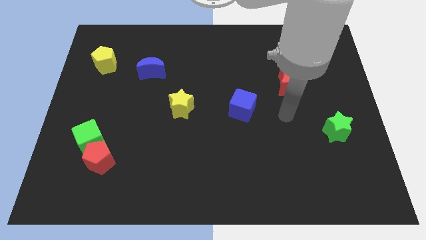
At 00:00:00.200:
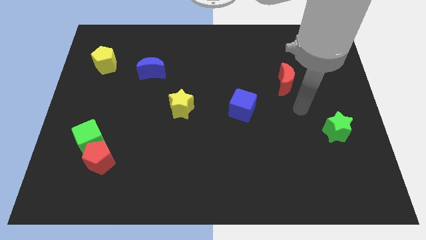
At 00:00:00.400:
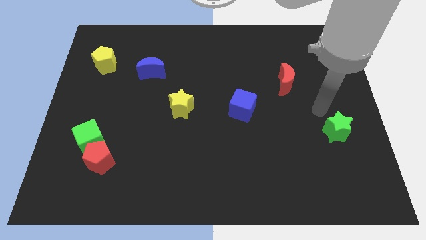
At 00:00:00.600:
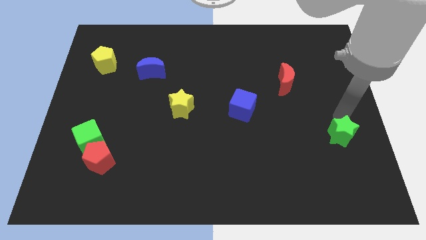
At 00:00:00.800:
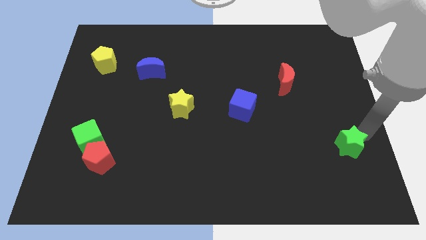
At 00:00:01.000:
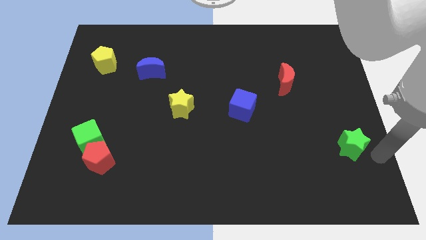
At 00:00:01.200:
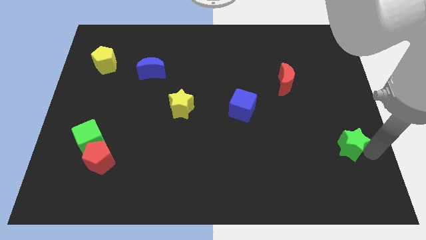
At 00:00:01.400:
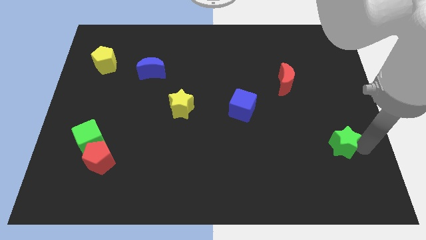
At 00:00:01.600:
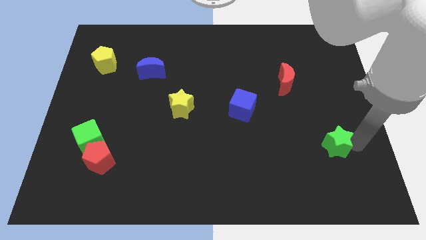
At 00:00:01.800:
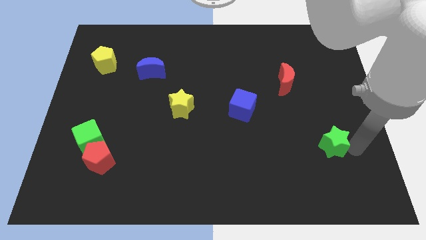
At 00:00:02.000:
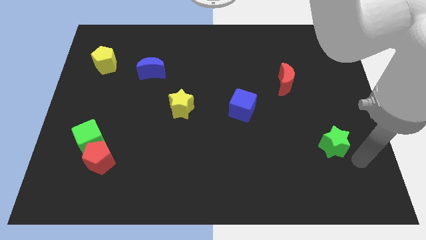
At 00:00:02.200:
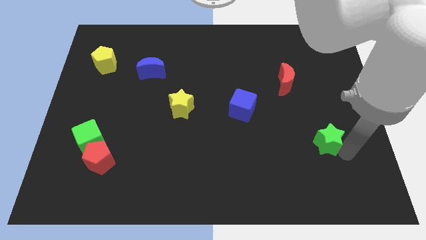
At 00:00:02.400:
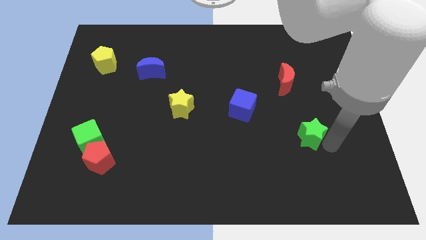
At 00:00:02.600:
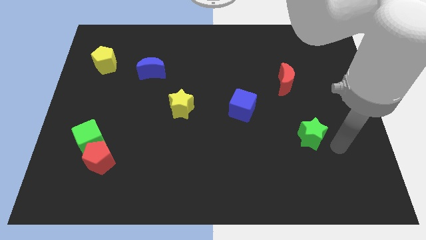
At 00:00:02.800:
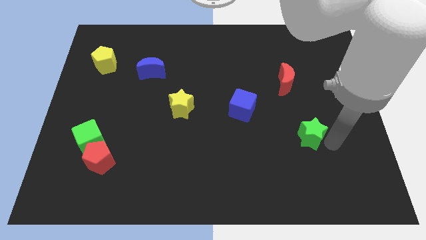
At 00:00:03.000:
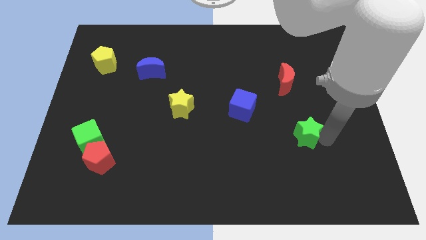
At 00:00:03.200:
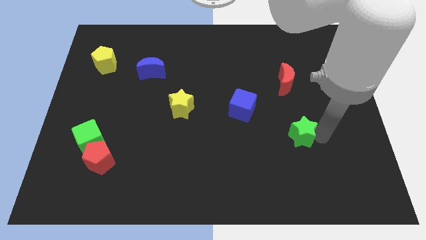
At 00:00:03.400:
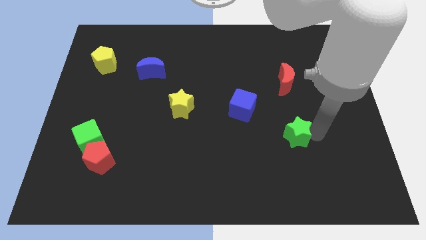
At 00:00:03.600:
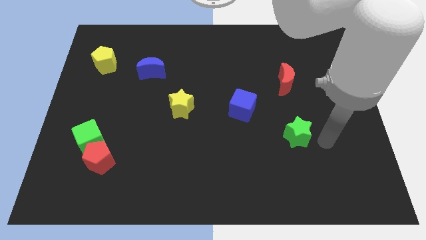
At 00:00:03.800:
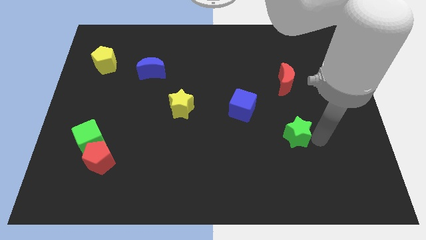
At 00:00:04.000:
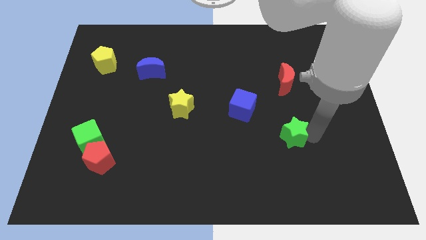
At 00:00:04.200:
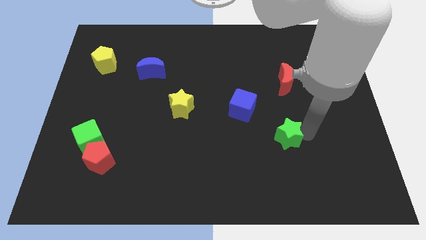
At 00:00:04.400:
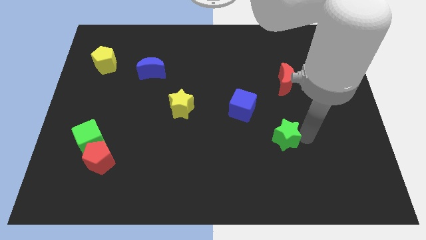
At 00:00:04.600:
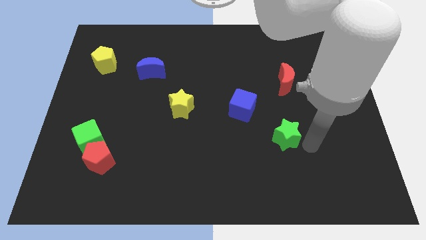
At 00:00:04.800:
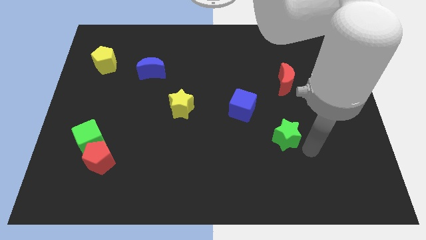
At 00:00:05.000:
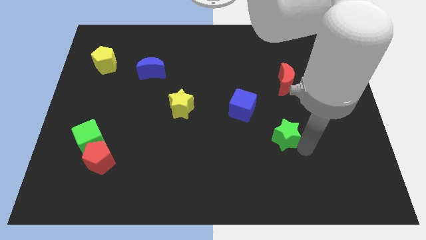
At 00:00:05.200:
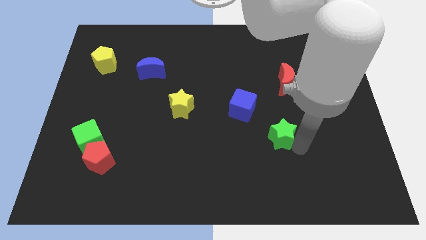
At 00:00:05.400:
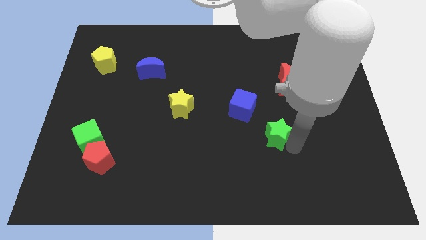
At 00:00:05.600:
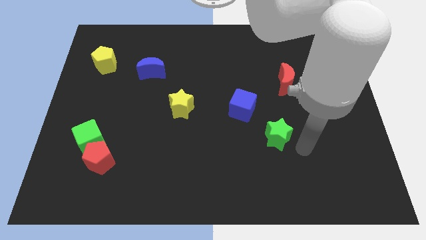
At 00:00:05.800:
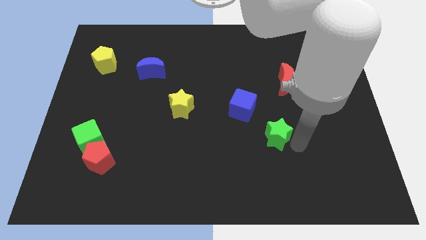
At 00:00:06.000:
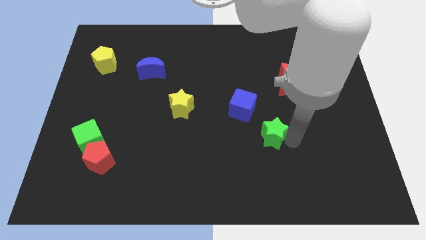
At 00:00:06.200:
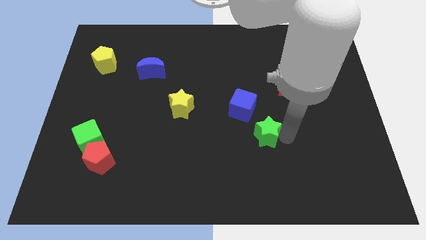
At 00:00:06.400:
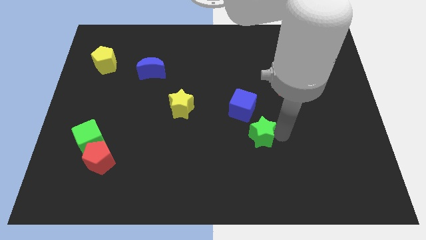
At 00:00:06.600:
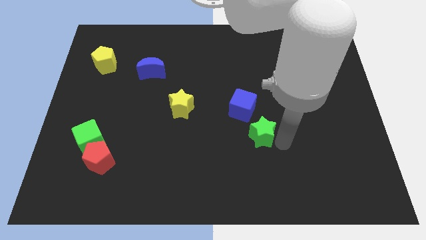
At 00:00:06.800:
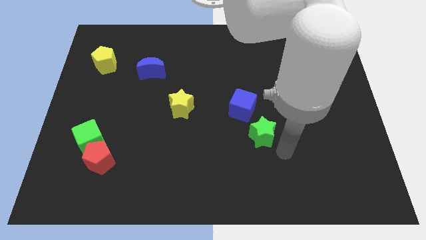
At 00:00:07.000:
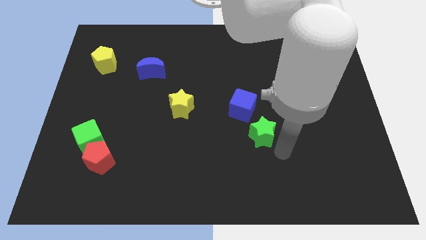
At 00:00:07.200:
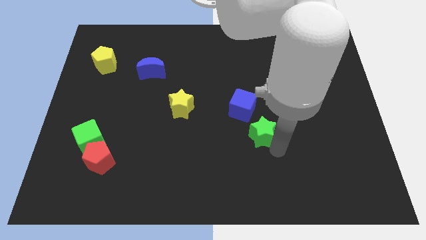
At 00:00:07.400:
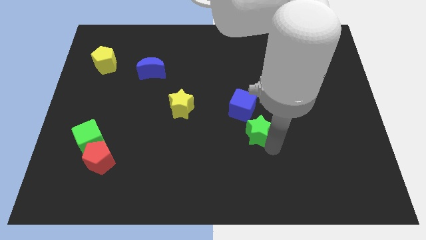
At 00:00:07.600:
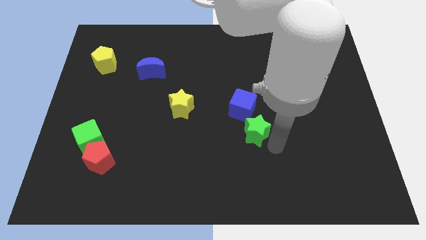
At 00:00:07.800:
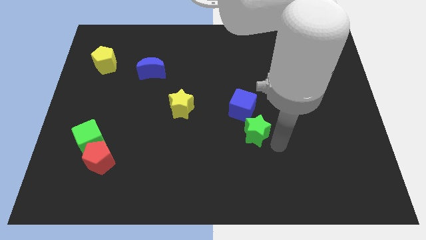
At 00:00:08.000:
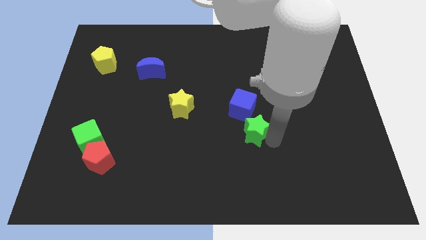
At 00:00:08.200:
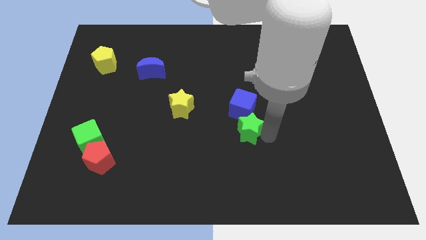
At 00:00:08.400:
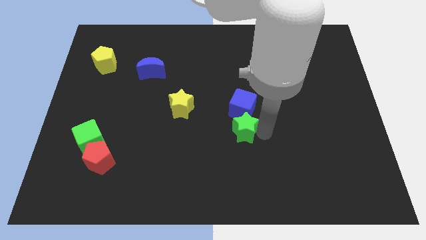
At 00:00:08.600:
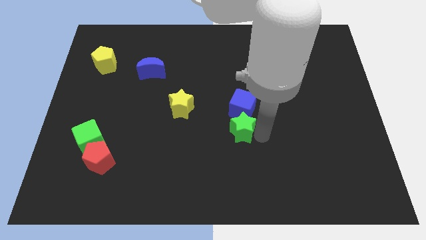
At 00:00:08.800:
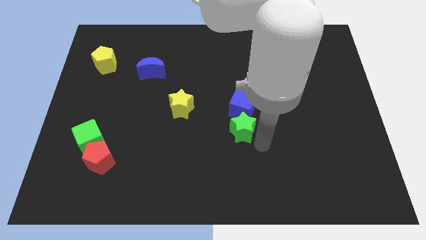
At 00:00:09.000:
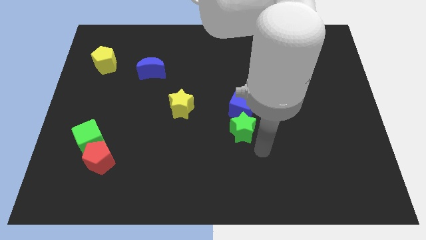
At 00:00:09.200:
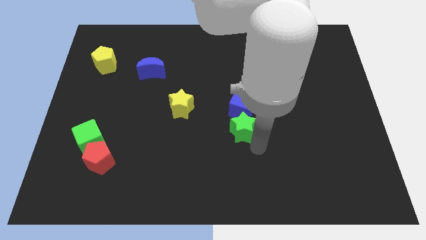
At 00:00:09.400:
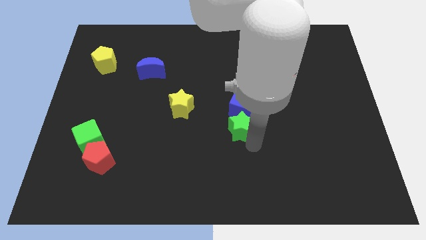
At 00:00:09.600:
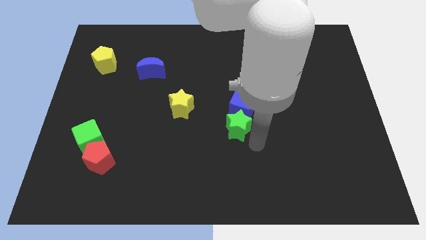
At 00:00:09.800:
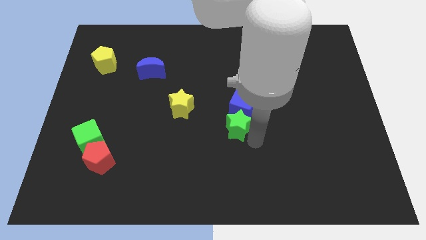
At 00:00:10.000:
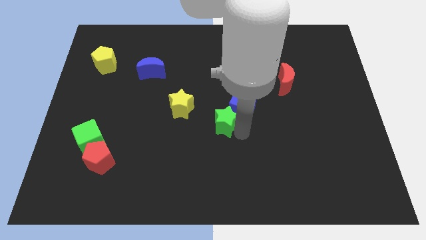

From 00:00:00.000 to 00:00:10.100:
push the green star left of the blue cube

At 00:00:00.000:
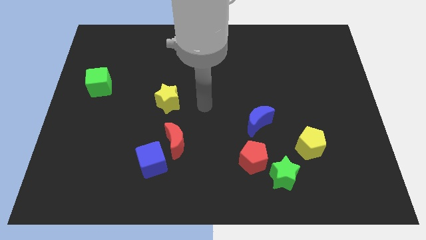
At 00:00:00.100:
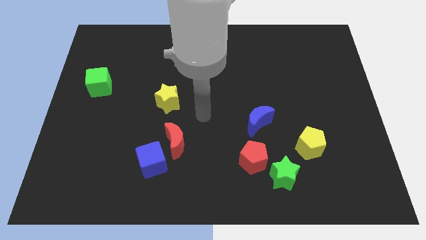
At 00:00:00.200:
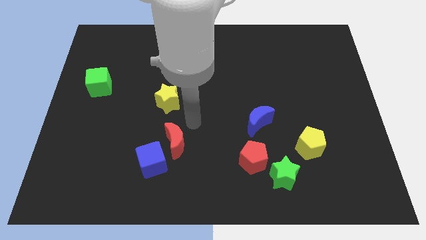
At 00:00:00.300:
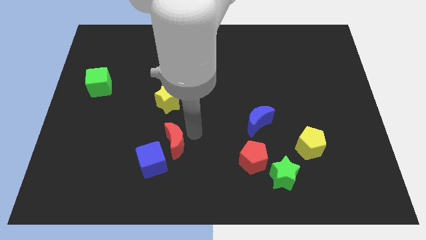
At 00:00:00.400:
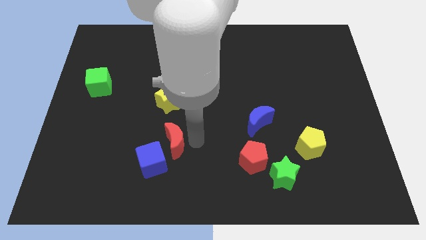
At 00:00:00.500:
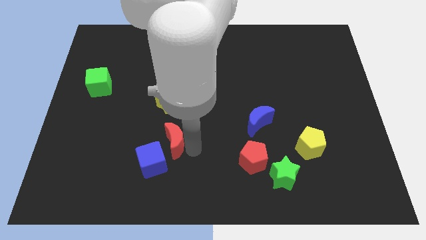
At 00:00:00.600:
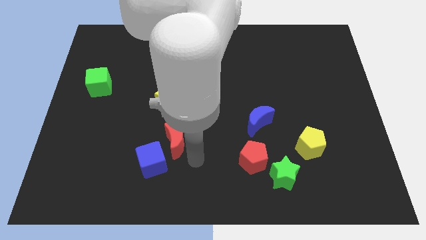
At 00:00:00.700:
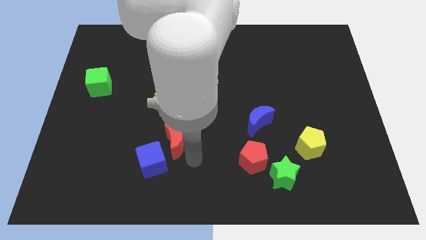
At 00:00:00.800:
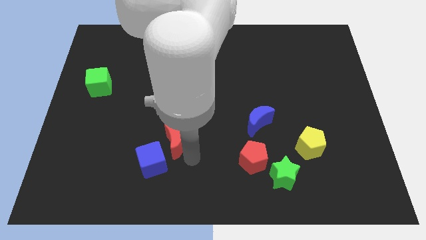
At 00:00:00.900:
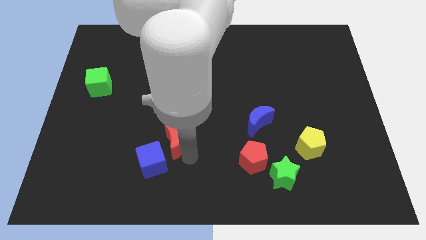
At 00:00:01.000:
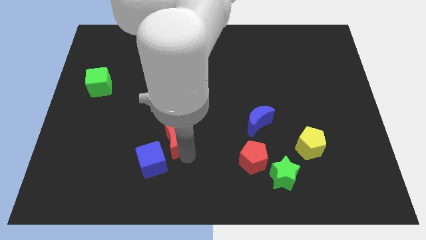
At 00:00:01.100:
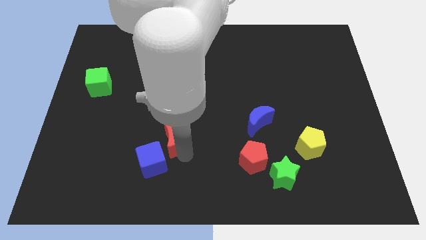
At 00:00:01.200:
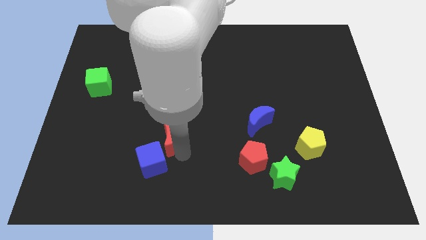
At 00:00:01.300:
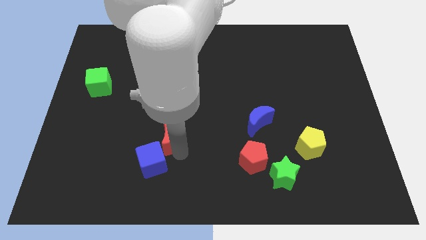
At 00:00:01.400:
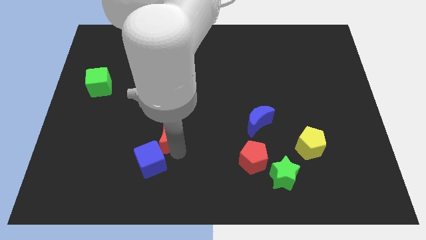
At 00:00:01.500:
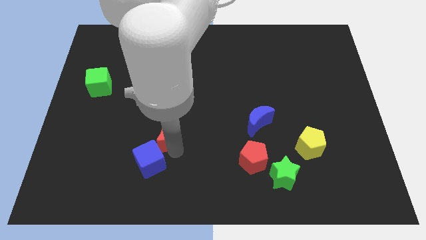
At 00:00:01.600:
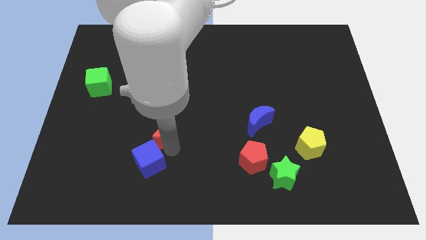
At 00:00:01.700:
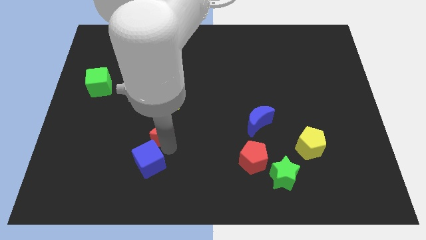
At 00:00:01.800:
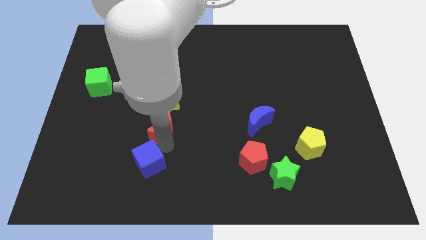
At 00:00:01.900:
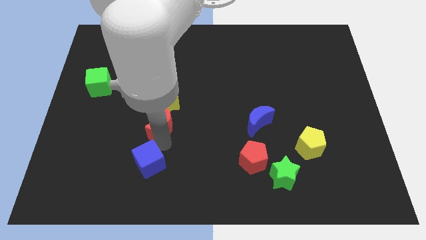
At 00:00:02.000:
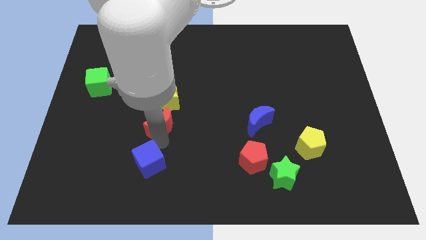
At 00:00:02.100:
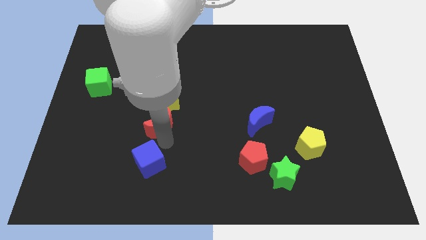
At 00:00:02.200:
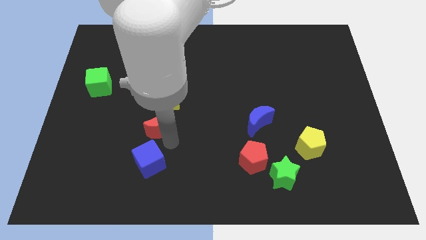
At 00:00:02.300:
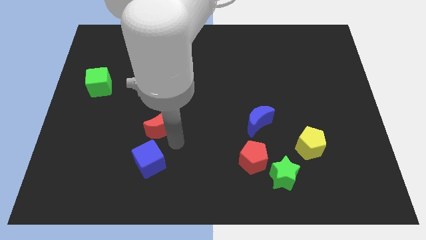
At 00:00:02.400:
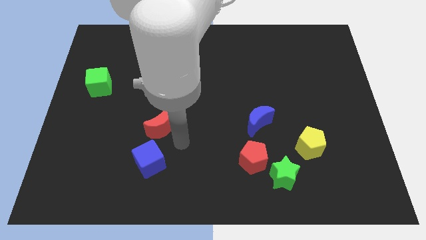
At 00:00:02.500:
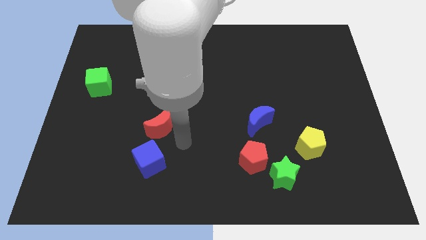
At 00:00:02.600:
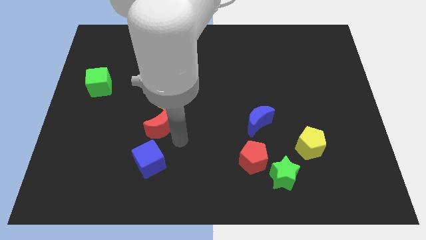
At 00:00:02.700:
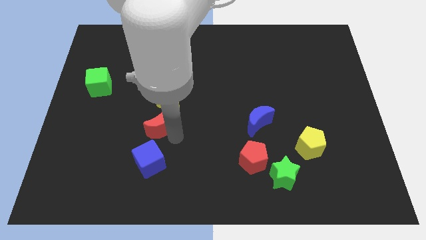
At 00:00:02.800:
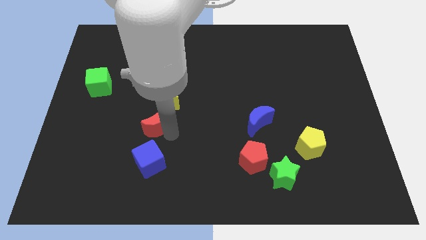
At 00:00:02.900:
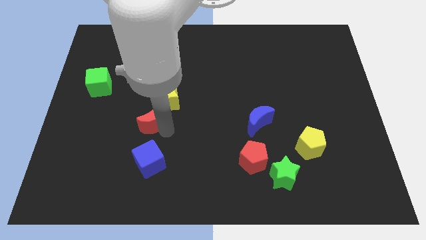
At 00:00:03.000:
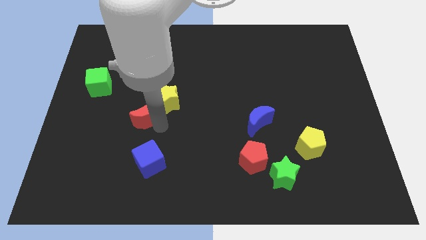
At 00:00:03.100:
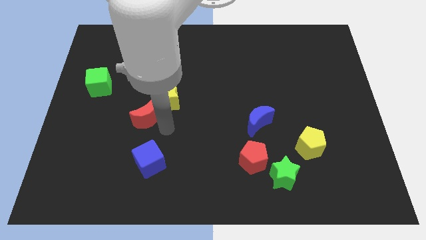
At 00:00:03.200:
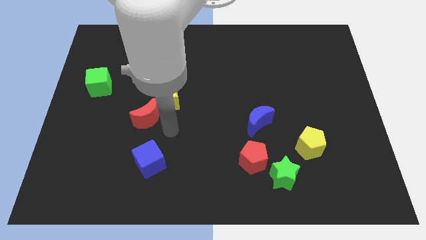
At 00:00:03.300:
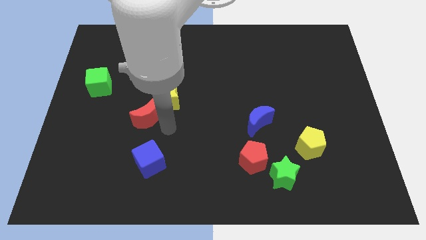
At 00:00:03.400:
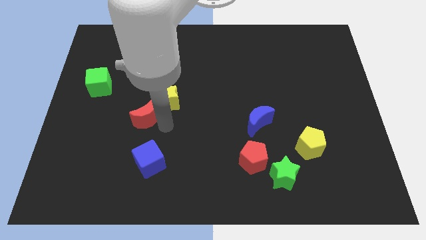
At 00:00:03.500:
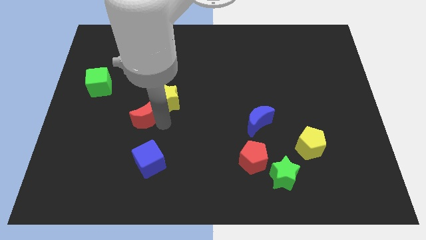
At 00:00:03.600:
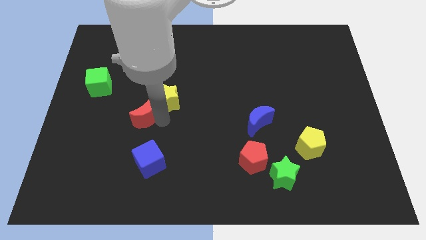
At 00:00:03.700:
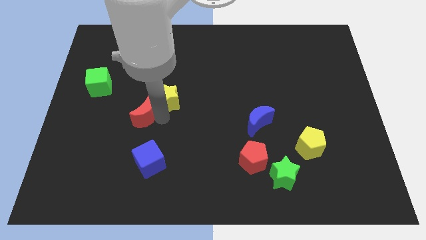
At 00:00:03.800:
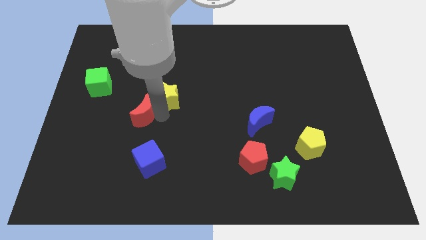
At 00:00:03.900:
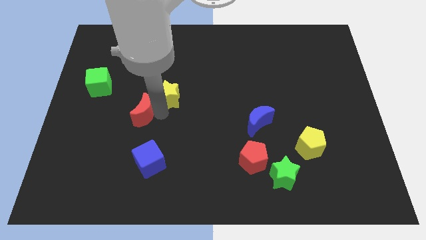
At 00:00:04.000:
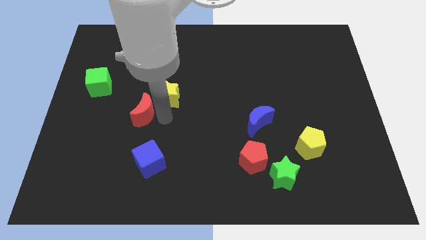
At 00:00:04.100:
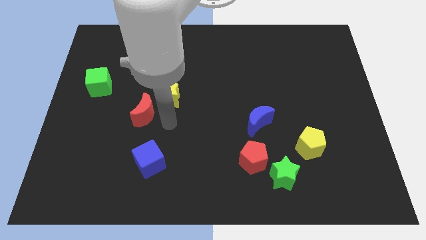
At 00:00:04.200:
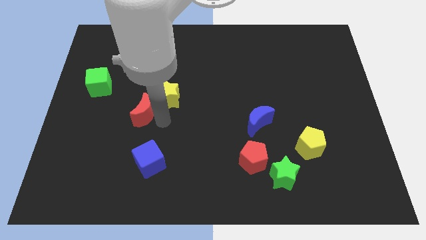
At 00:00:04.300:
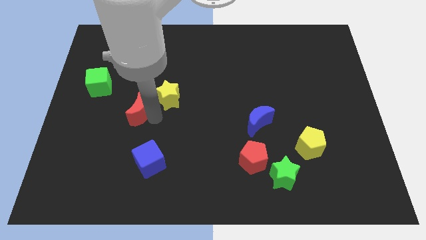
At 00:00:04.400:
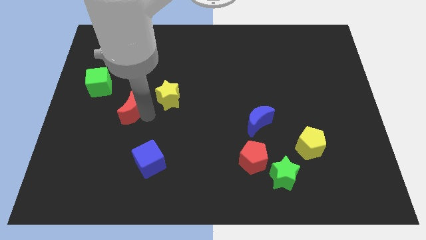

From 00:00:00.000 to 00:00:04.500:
slide the red moon diagonally down and to the right of the green cube
